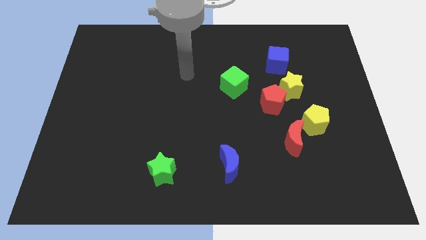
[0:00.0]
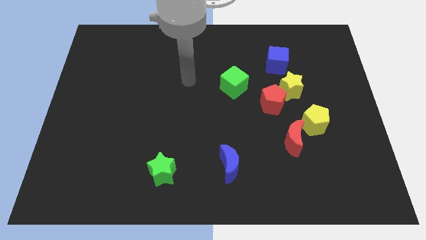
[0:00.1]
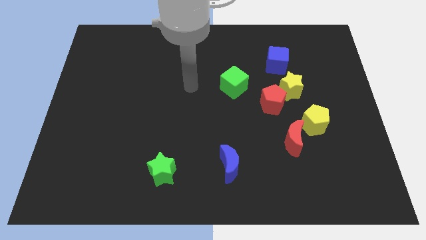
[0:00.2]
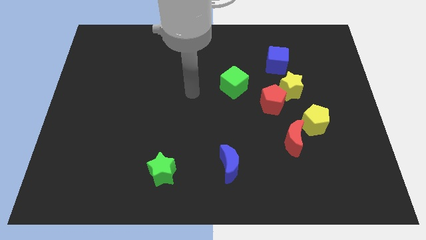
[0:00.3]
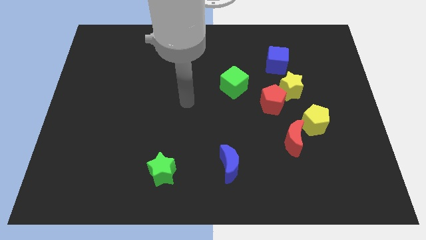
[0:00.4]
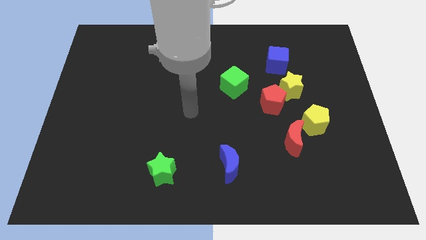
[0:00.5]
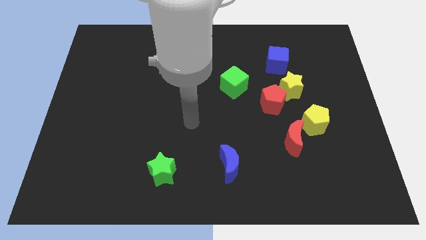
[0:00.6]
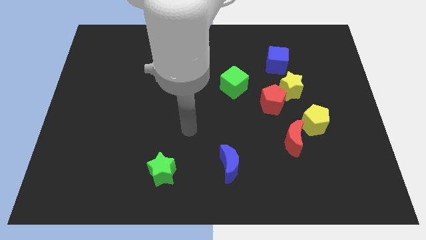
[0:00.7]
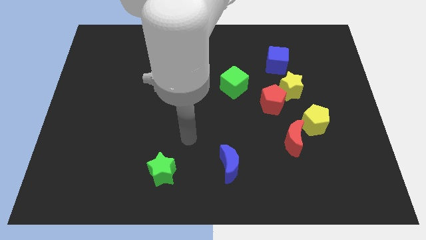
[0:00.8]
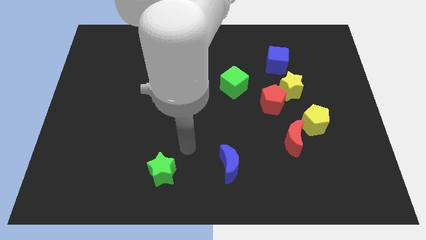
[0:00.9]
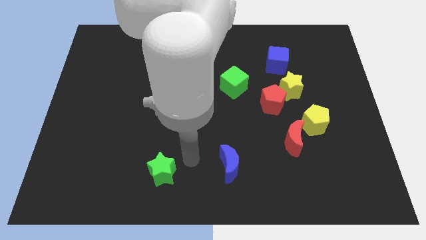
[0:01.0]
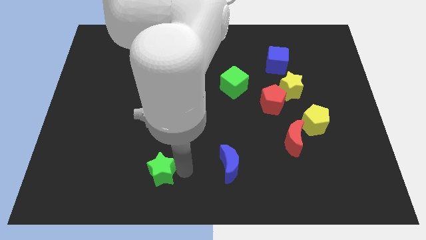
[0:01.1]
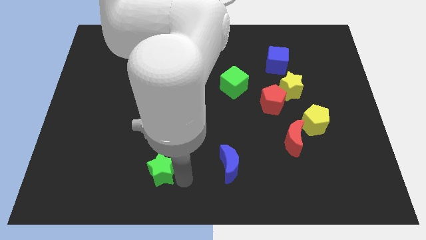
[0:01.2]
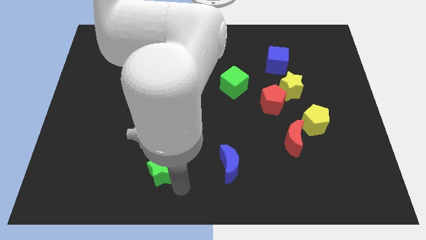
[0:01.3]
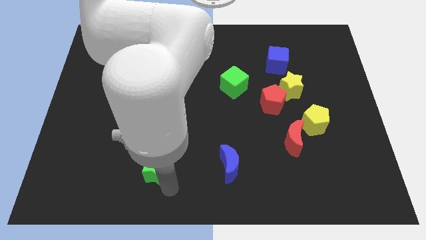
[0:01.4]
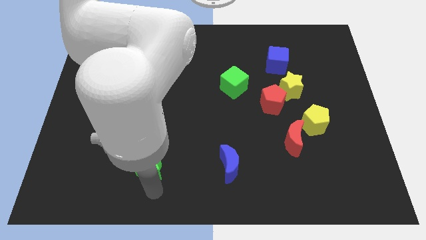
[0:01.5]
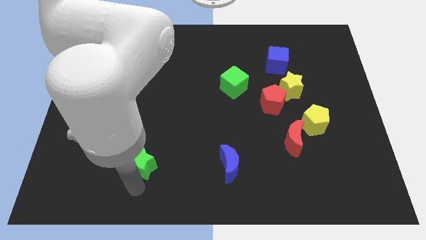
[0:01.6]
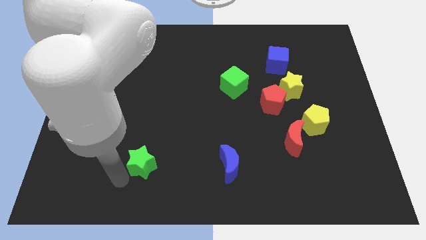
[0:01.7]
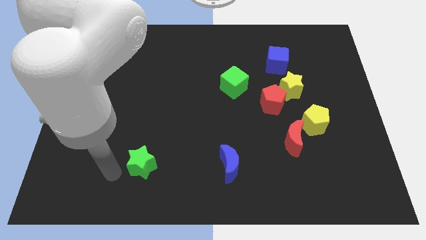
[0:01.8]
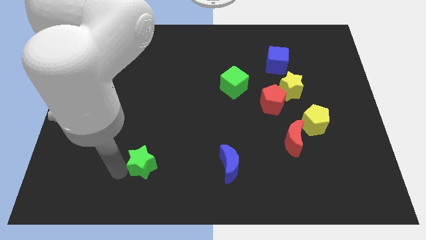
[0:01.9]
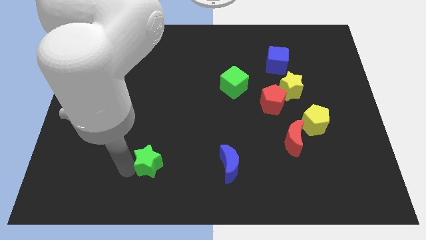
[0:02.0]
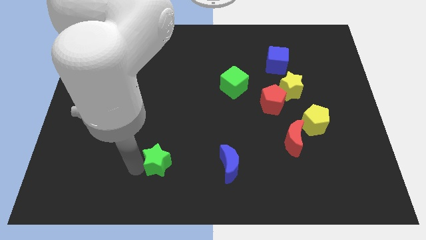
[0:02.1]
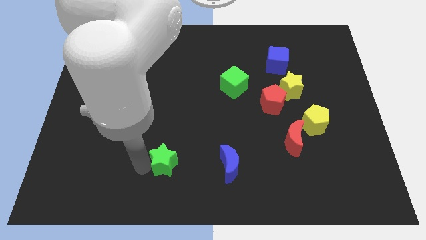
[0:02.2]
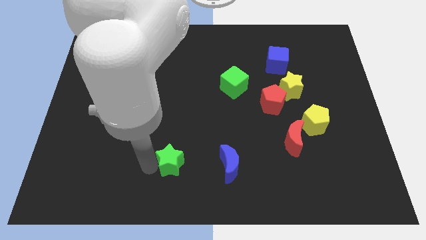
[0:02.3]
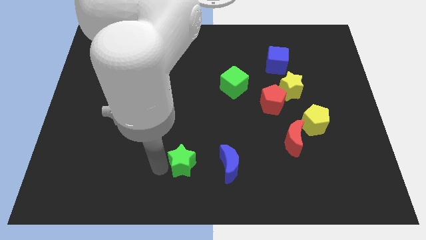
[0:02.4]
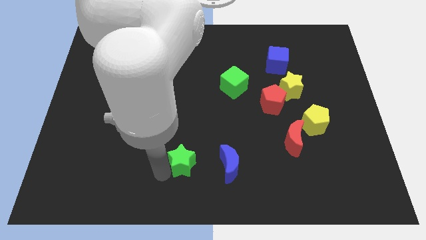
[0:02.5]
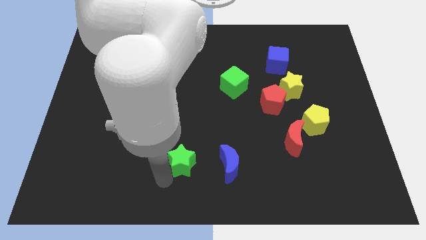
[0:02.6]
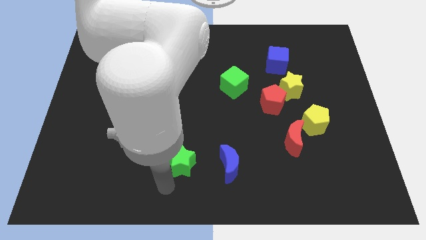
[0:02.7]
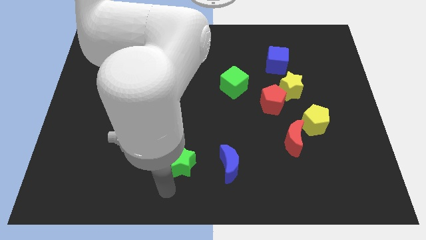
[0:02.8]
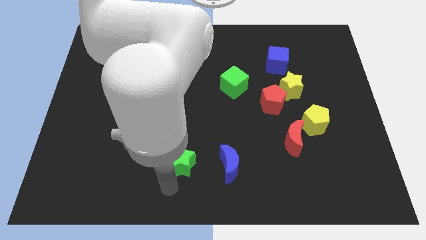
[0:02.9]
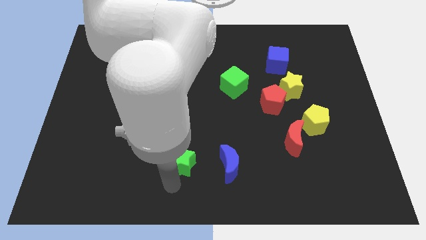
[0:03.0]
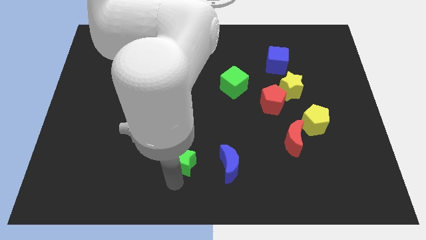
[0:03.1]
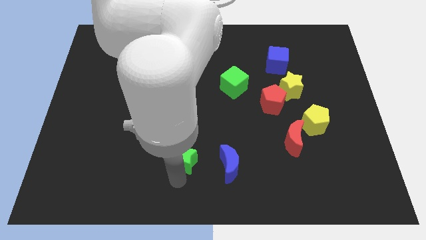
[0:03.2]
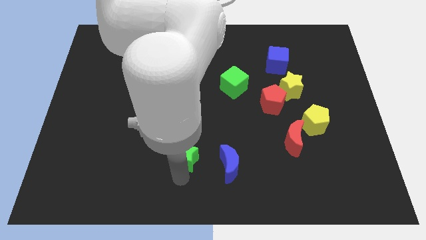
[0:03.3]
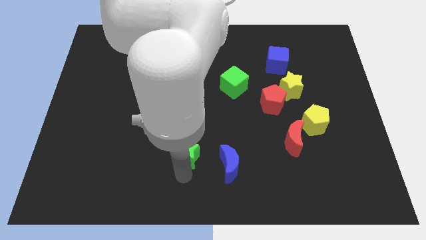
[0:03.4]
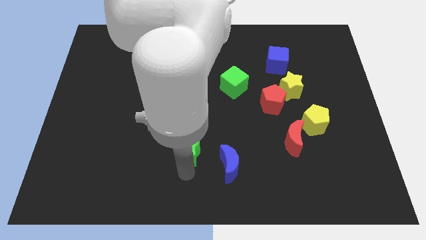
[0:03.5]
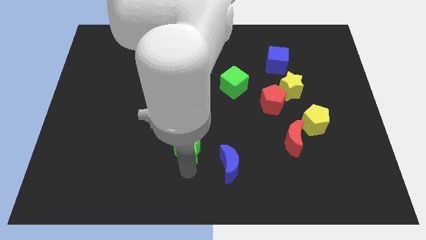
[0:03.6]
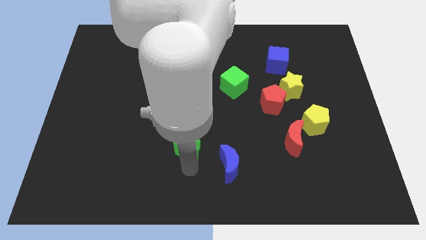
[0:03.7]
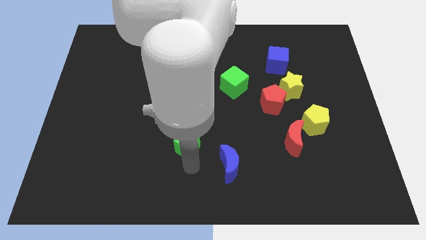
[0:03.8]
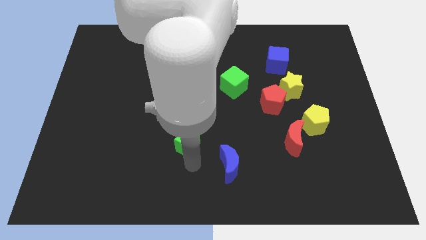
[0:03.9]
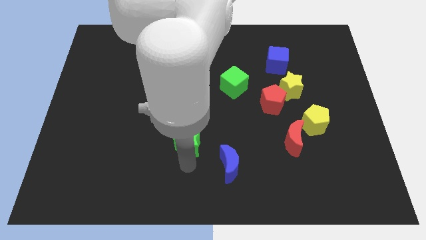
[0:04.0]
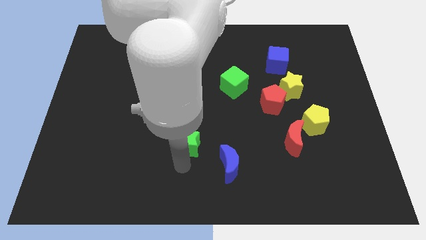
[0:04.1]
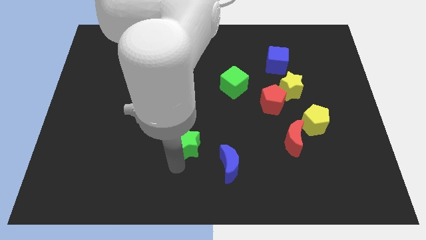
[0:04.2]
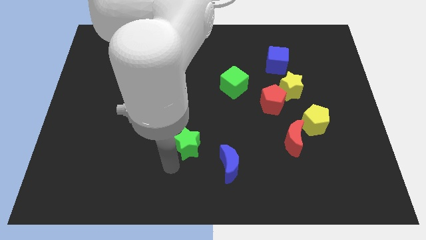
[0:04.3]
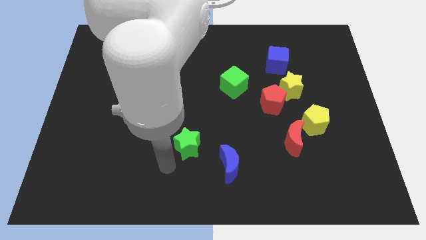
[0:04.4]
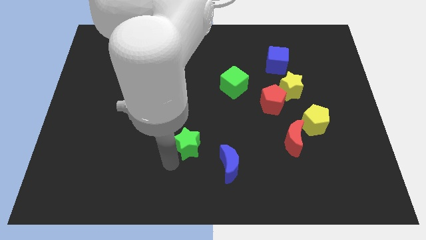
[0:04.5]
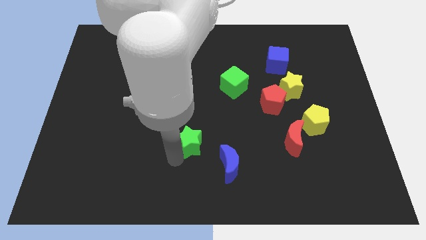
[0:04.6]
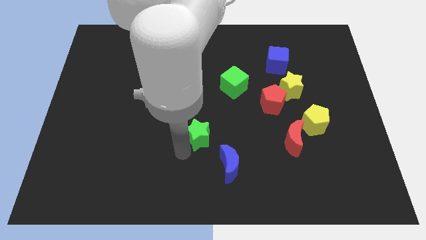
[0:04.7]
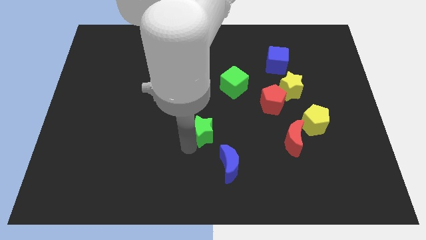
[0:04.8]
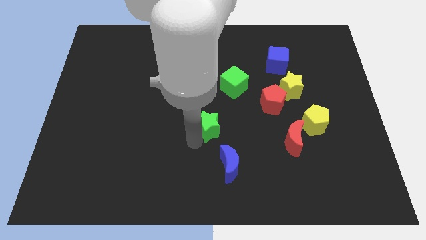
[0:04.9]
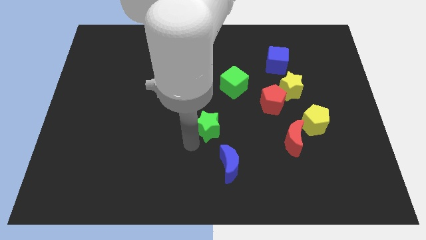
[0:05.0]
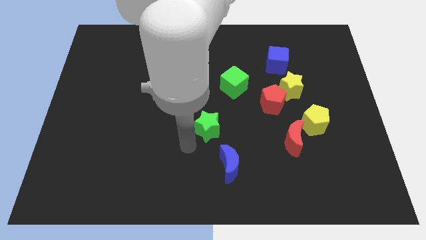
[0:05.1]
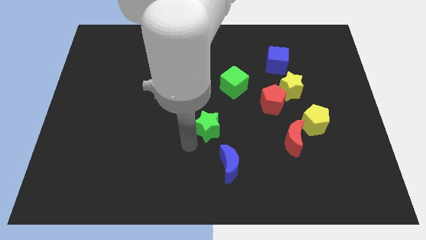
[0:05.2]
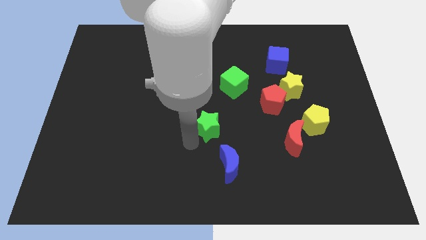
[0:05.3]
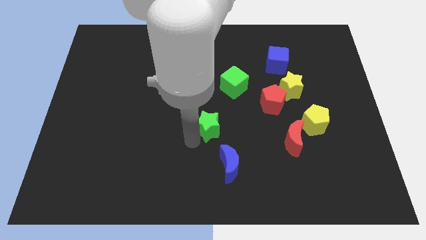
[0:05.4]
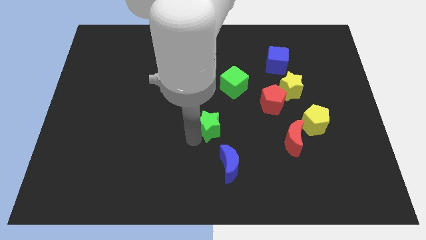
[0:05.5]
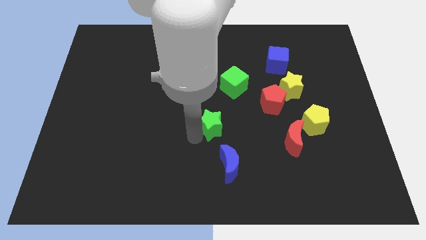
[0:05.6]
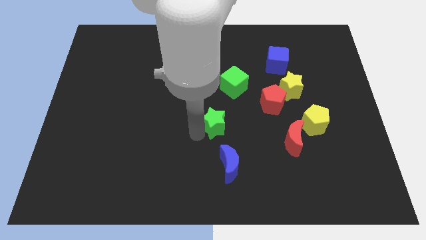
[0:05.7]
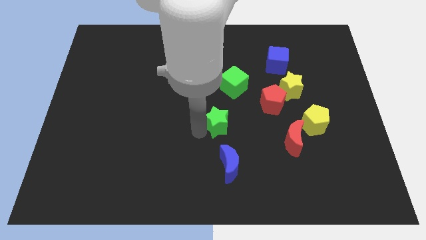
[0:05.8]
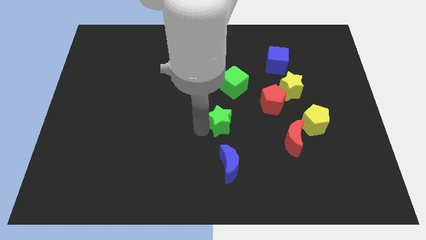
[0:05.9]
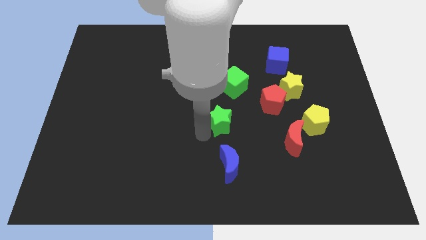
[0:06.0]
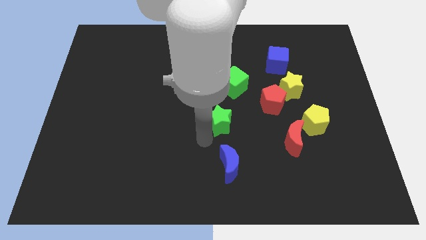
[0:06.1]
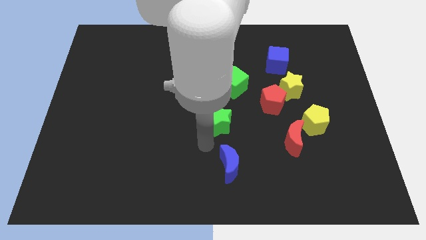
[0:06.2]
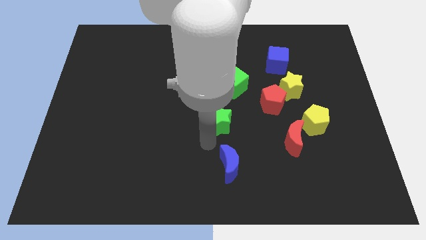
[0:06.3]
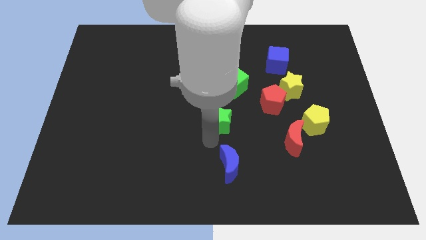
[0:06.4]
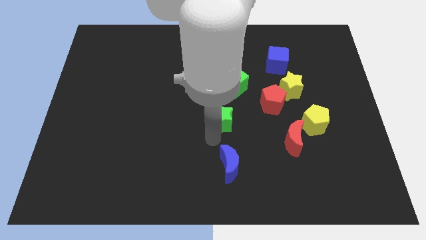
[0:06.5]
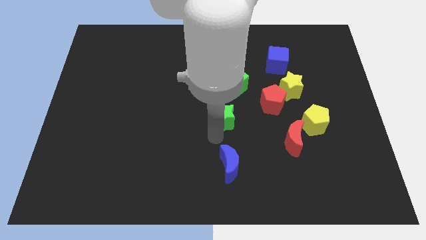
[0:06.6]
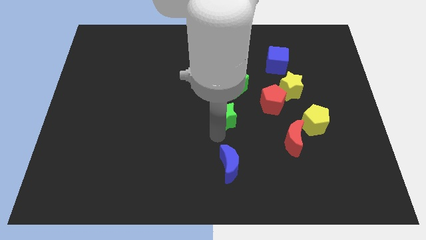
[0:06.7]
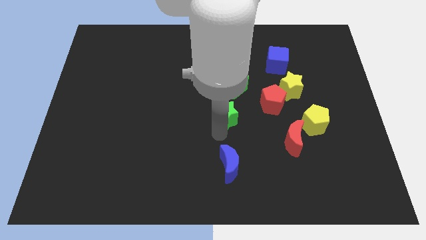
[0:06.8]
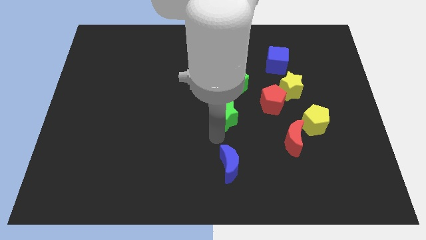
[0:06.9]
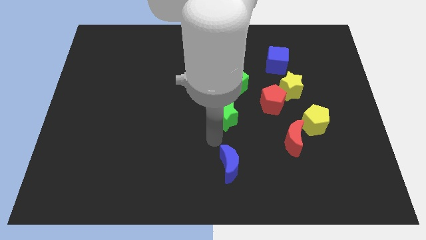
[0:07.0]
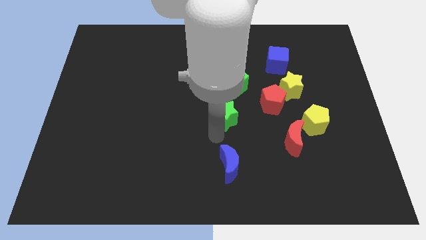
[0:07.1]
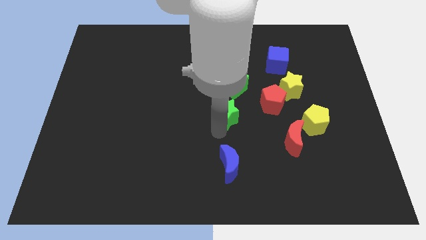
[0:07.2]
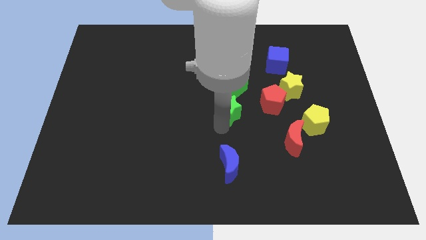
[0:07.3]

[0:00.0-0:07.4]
move the green star diagonally up and right

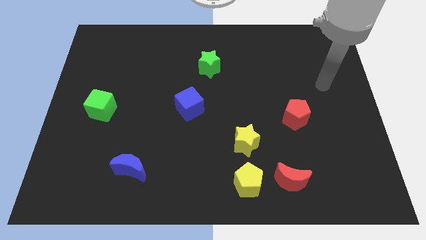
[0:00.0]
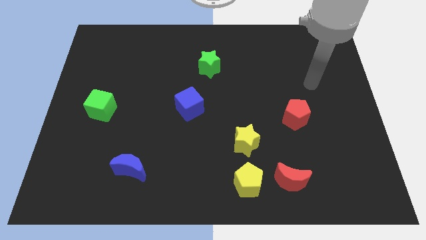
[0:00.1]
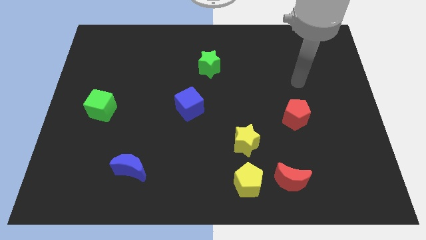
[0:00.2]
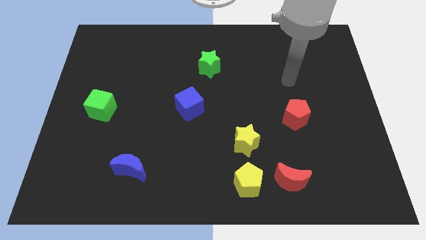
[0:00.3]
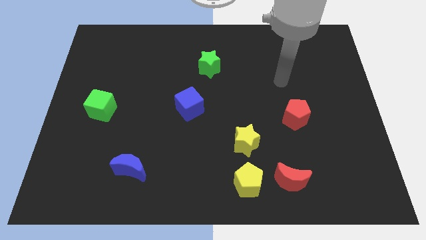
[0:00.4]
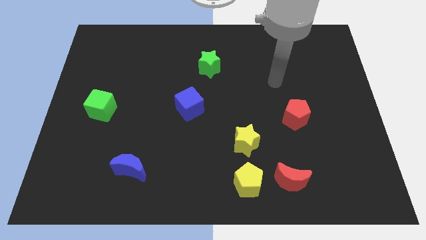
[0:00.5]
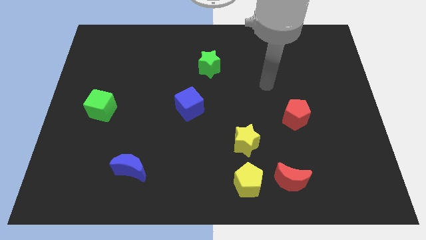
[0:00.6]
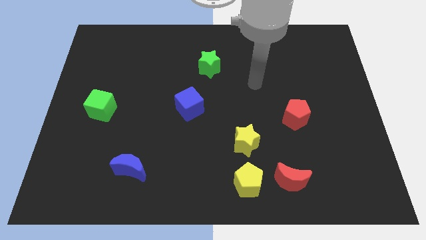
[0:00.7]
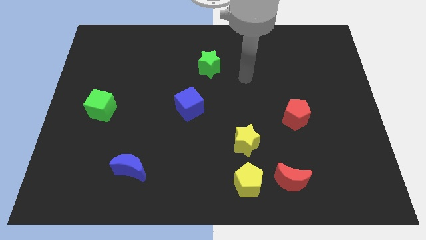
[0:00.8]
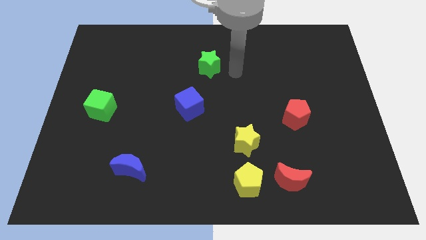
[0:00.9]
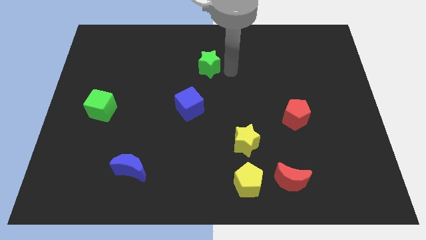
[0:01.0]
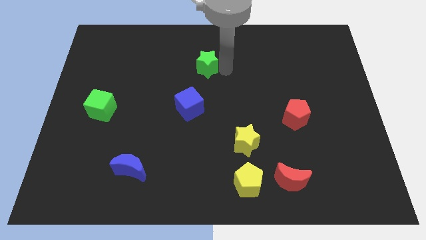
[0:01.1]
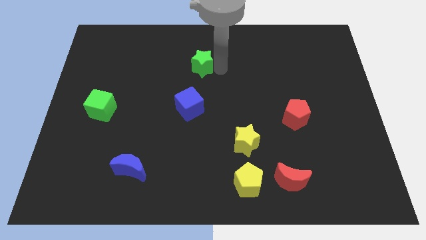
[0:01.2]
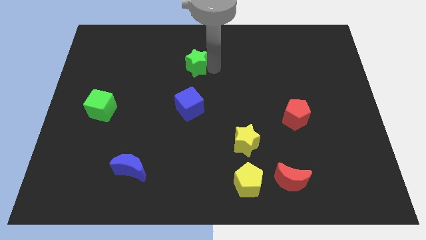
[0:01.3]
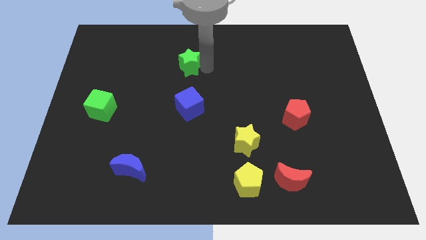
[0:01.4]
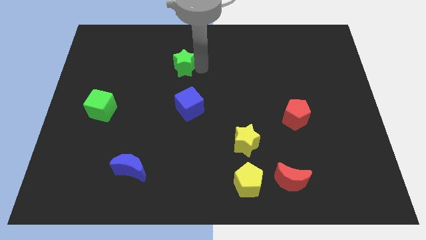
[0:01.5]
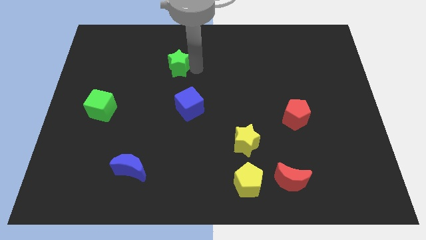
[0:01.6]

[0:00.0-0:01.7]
slide the green star left a bit
